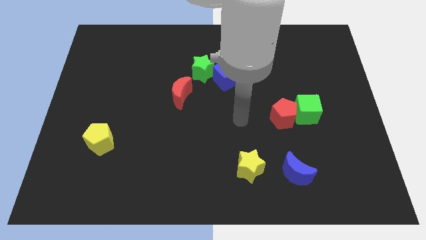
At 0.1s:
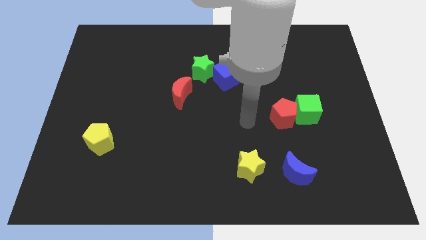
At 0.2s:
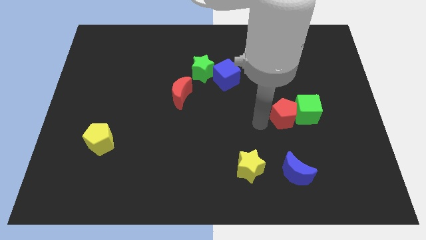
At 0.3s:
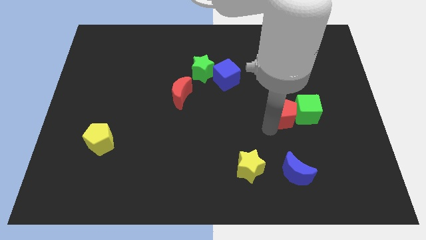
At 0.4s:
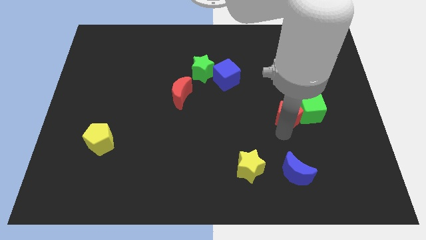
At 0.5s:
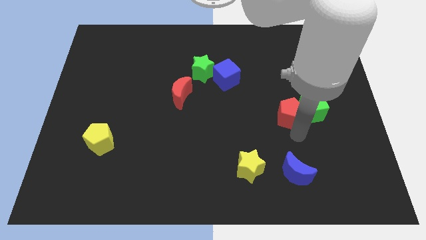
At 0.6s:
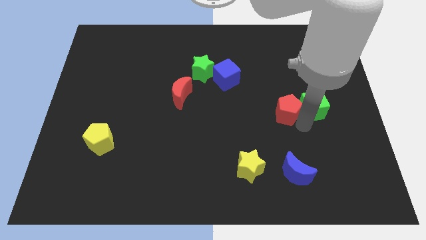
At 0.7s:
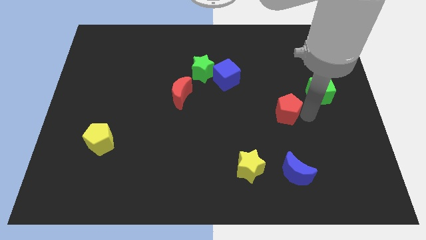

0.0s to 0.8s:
separate the red pentagon from the green cube

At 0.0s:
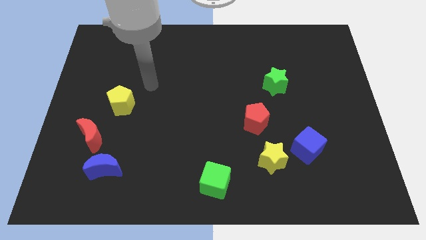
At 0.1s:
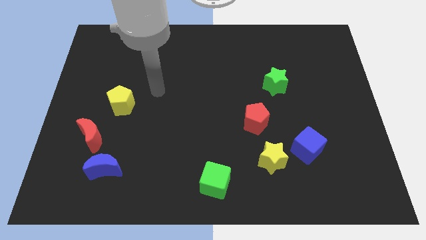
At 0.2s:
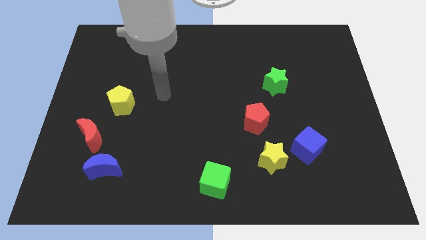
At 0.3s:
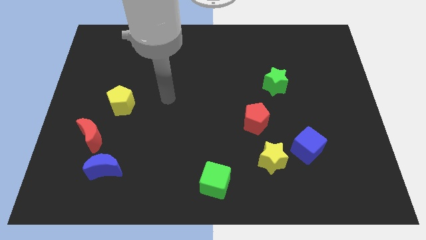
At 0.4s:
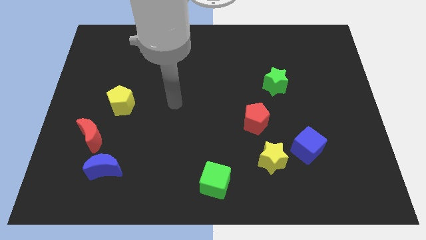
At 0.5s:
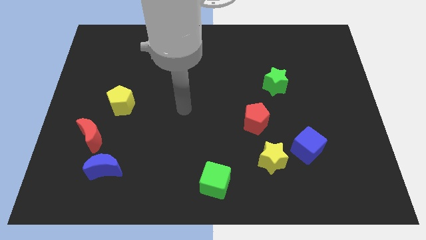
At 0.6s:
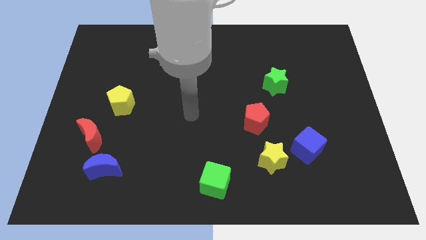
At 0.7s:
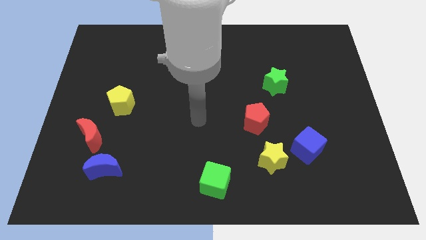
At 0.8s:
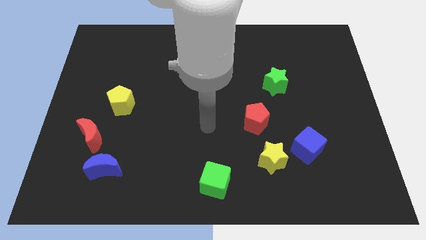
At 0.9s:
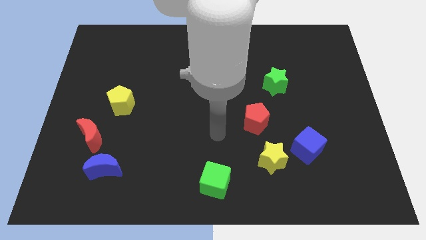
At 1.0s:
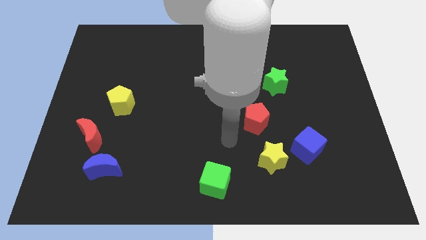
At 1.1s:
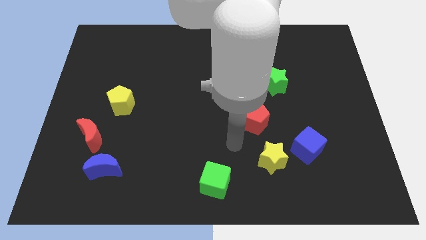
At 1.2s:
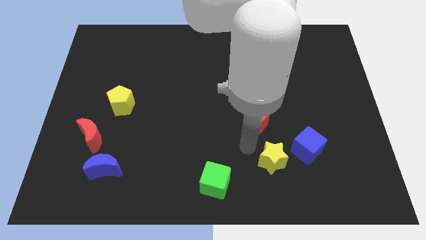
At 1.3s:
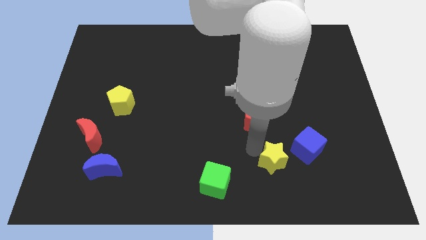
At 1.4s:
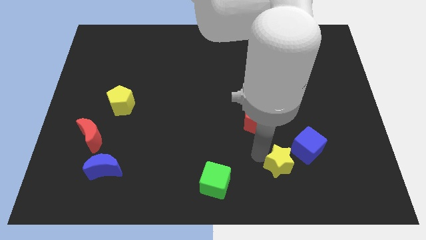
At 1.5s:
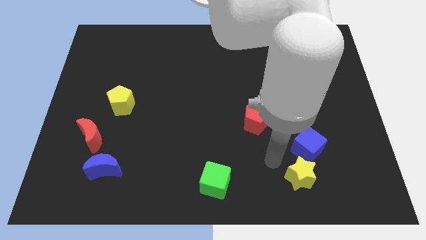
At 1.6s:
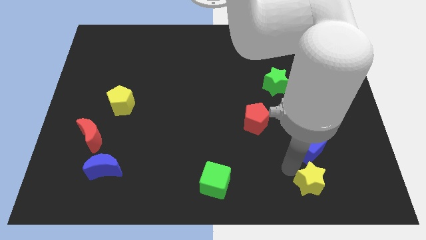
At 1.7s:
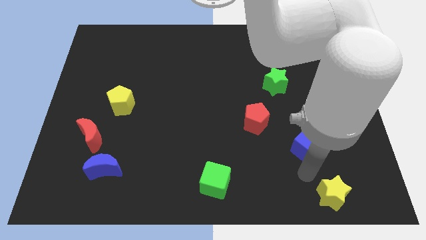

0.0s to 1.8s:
move the blue cube away from the yellow star

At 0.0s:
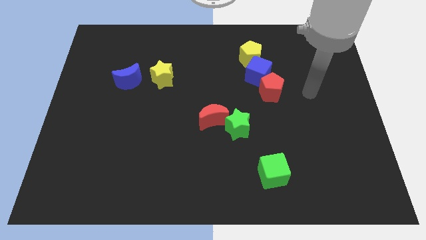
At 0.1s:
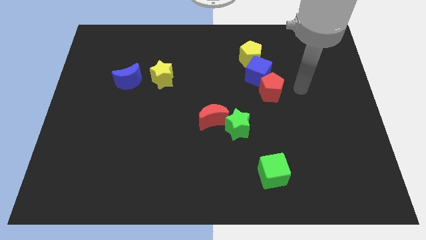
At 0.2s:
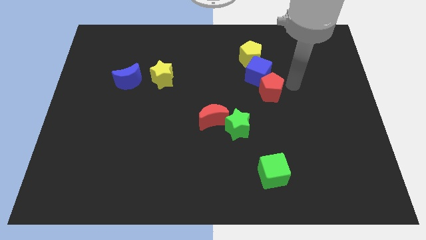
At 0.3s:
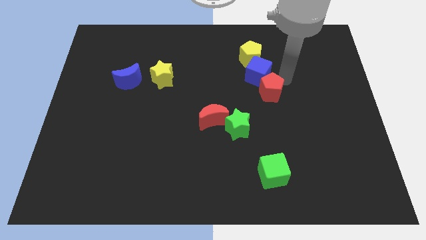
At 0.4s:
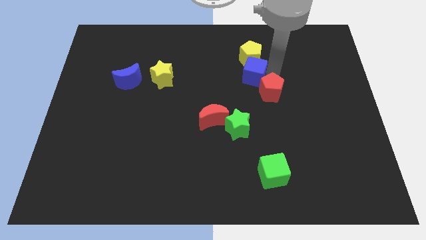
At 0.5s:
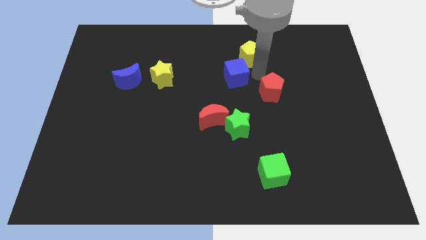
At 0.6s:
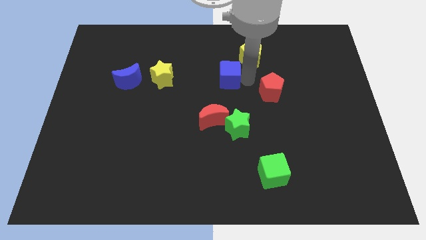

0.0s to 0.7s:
pull the red pentagon apart from the blue cube

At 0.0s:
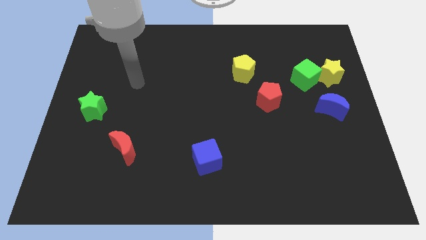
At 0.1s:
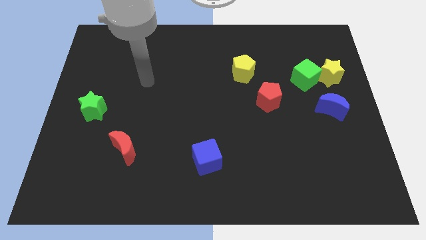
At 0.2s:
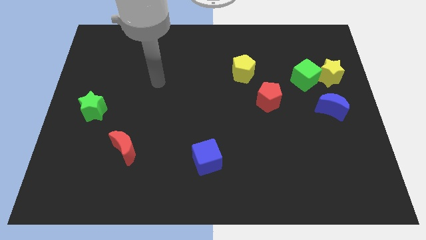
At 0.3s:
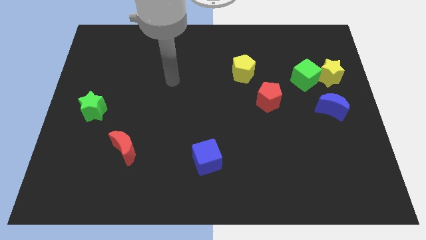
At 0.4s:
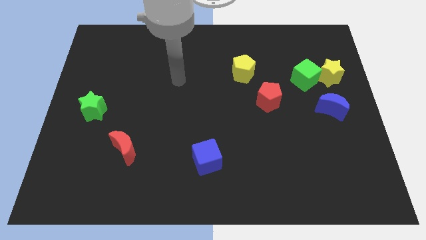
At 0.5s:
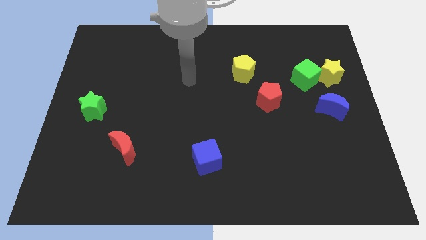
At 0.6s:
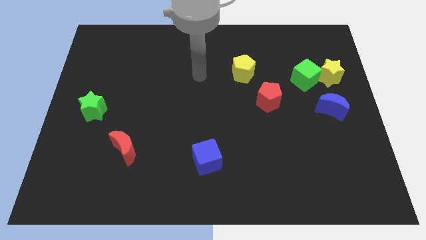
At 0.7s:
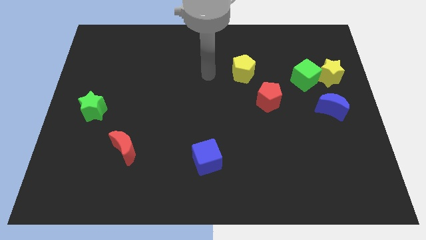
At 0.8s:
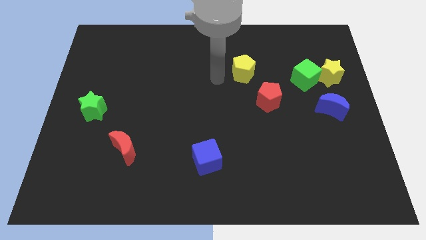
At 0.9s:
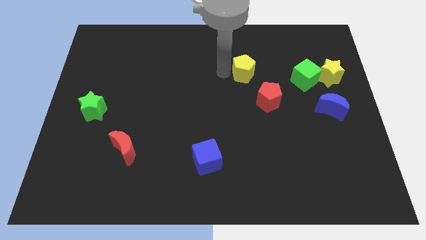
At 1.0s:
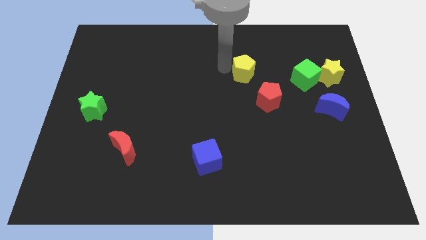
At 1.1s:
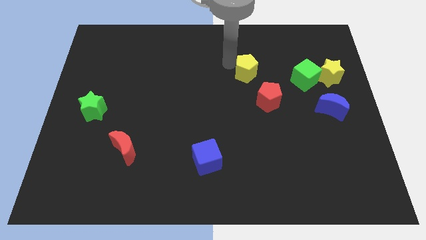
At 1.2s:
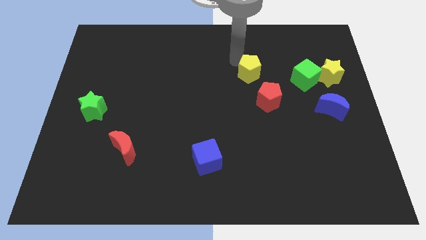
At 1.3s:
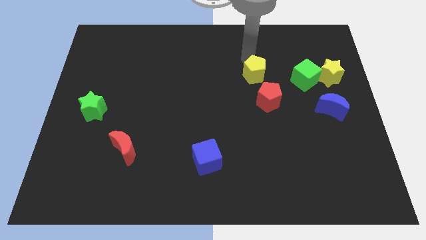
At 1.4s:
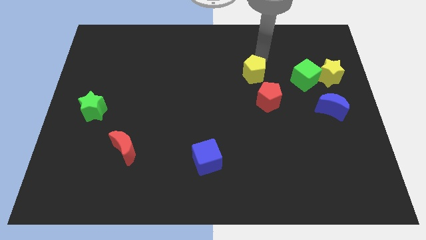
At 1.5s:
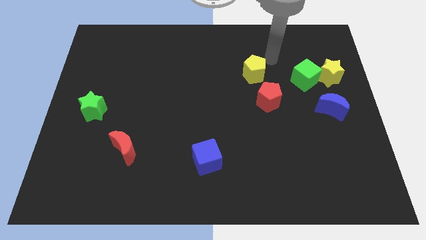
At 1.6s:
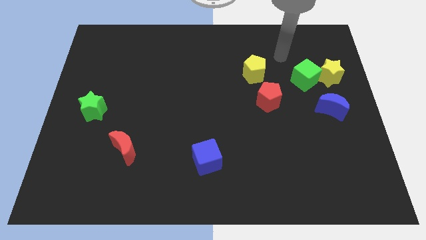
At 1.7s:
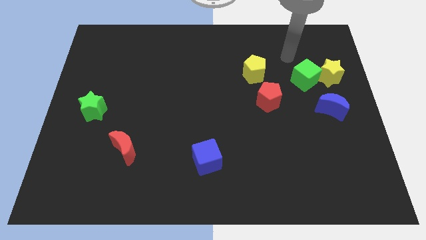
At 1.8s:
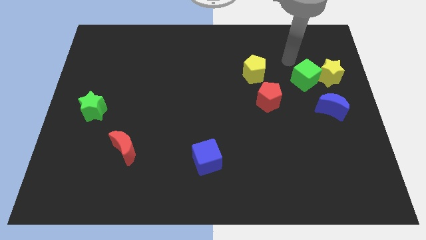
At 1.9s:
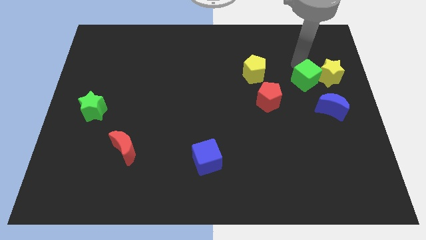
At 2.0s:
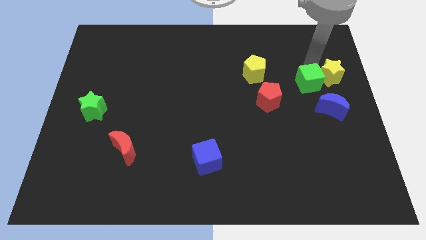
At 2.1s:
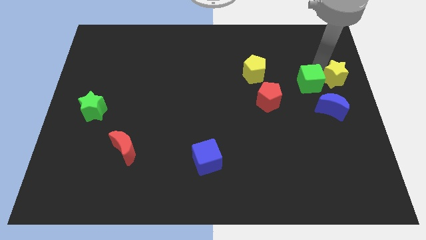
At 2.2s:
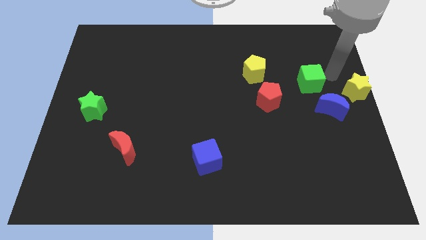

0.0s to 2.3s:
pull the green cube apart from the yellow star

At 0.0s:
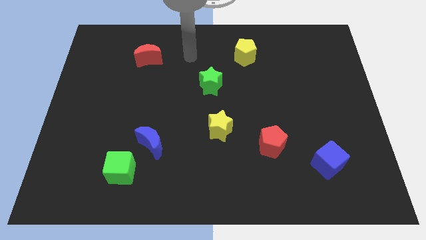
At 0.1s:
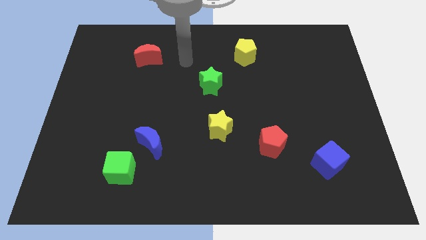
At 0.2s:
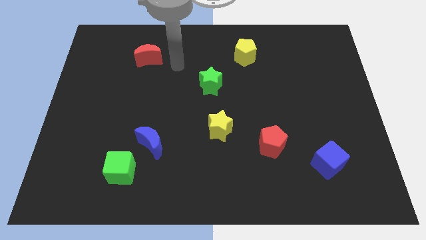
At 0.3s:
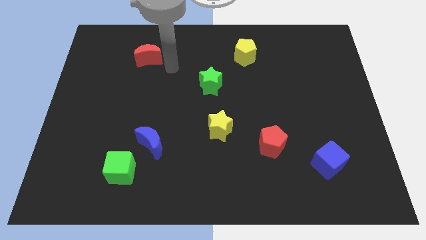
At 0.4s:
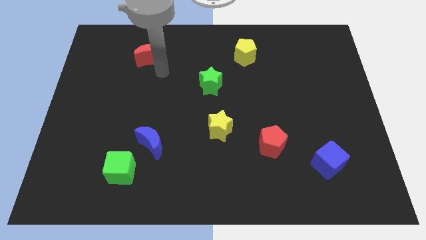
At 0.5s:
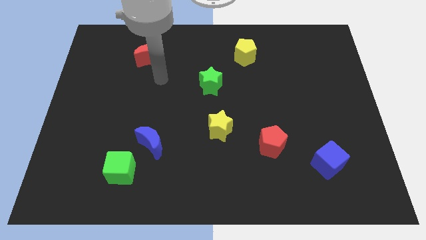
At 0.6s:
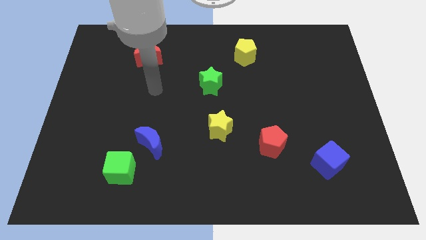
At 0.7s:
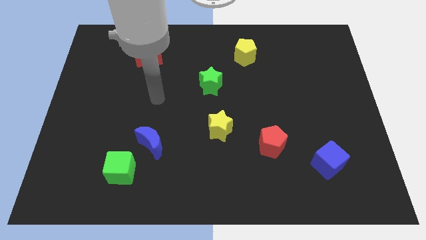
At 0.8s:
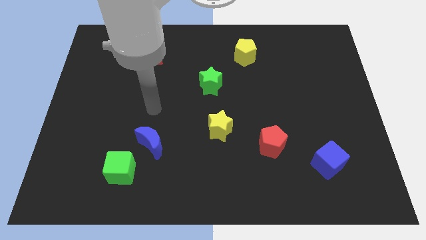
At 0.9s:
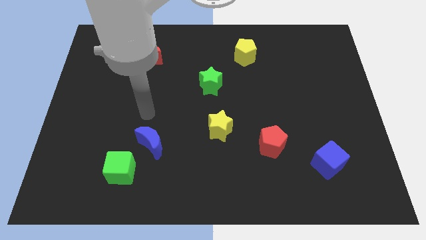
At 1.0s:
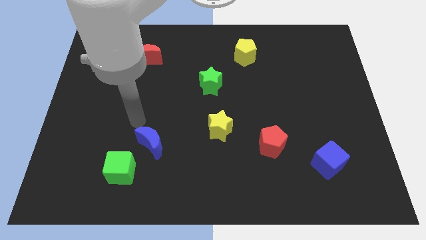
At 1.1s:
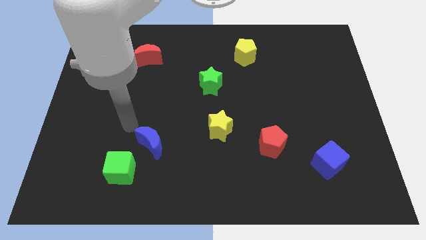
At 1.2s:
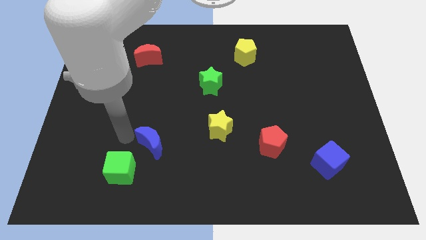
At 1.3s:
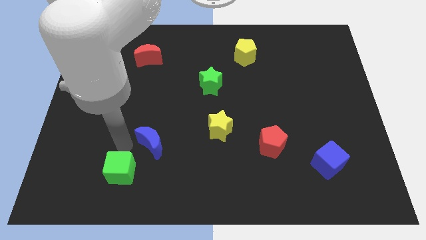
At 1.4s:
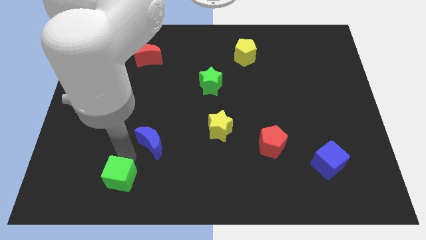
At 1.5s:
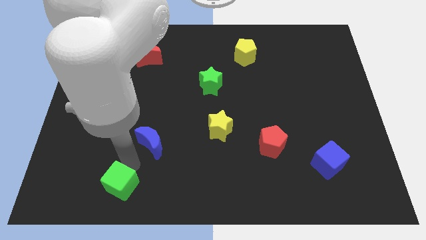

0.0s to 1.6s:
pull the blue moon apart from the green cube

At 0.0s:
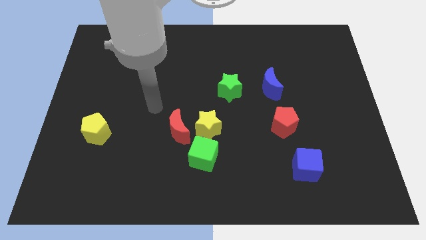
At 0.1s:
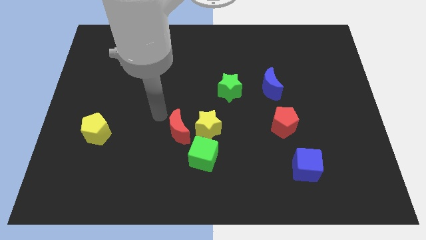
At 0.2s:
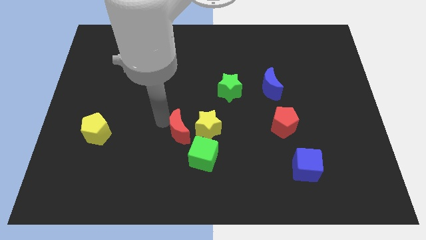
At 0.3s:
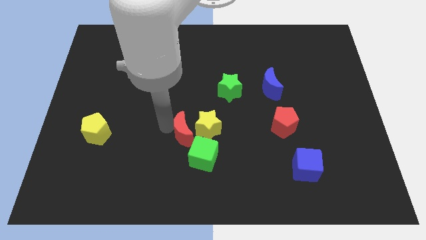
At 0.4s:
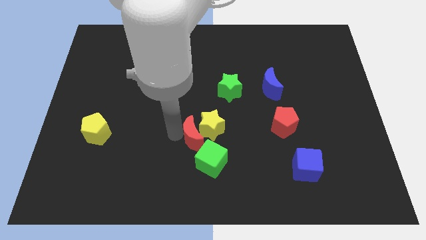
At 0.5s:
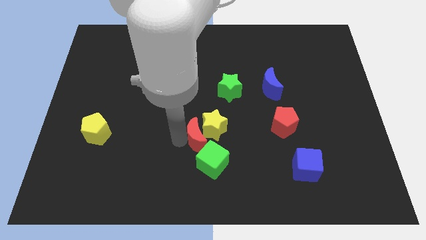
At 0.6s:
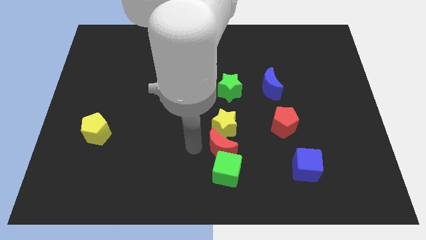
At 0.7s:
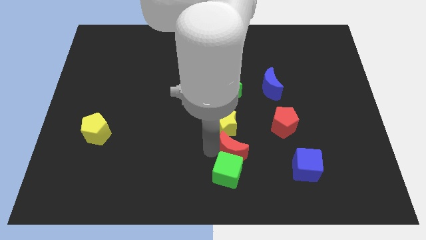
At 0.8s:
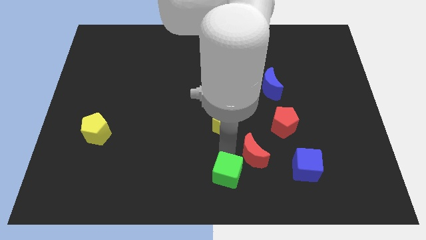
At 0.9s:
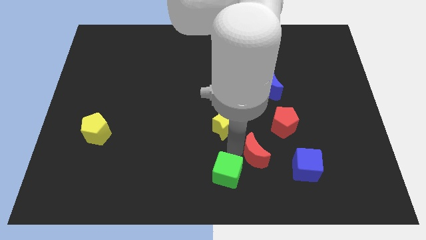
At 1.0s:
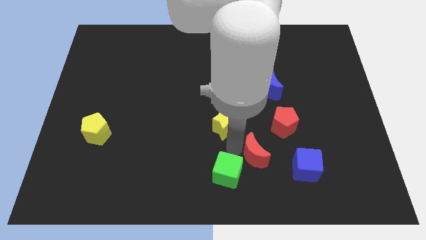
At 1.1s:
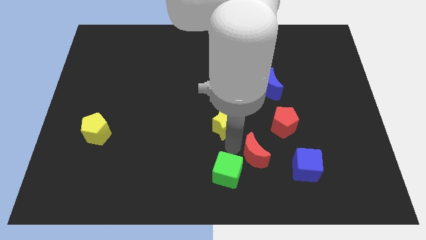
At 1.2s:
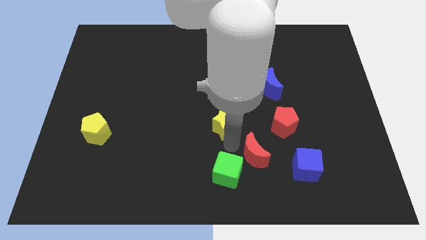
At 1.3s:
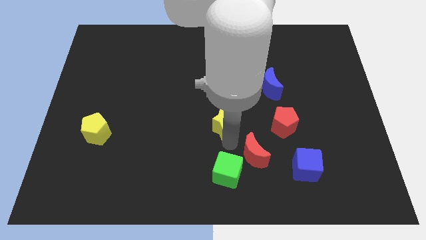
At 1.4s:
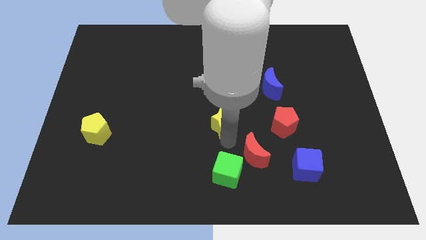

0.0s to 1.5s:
separate the yellow star from the red moon and green cube

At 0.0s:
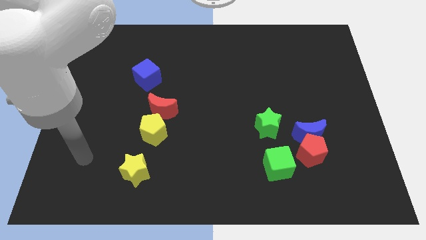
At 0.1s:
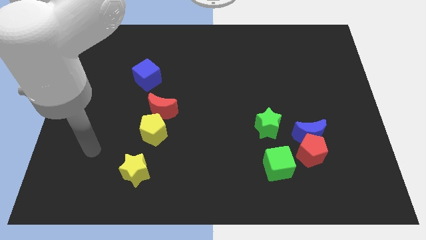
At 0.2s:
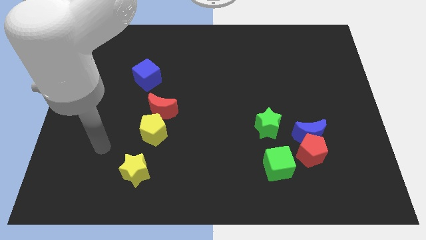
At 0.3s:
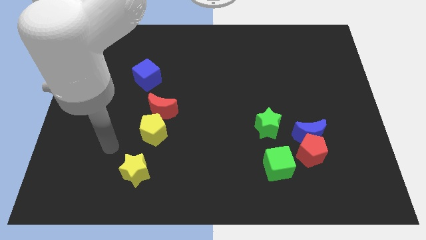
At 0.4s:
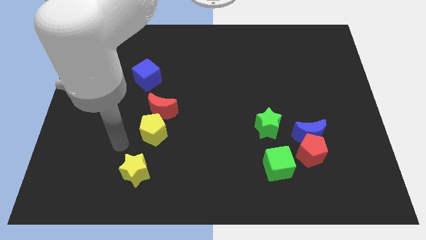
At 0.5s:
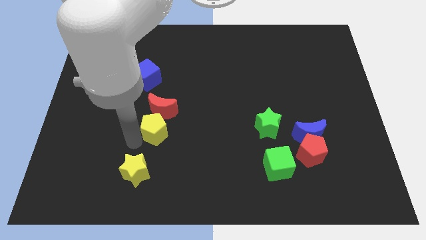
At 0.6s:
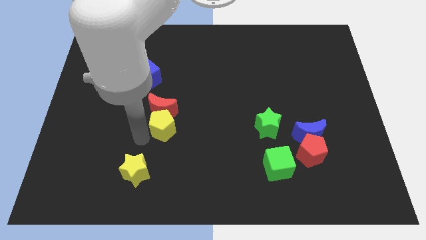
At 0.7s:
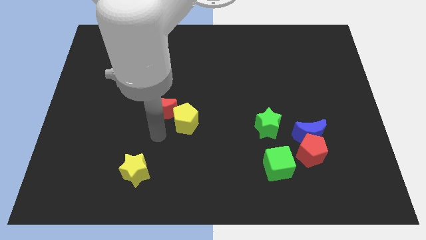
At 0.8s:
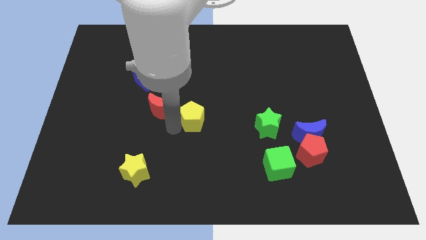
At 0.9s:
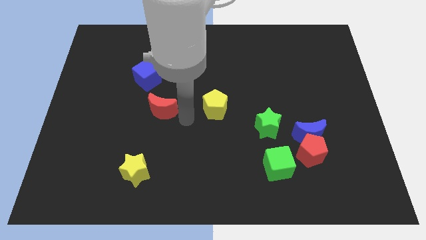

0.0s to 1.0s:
move the red moon away from the yellow pentagon
